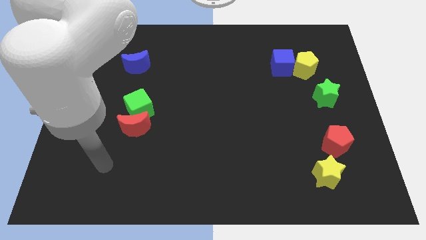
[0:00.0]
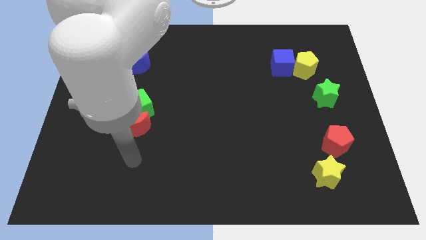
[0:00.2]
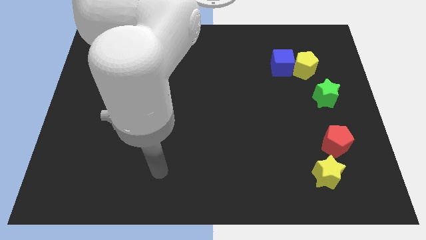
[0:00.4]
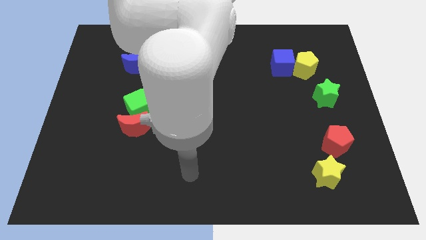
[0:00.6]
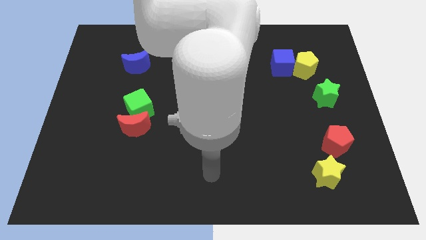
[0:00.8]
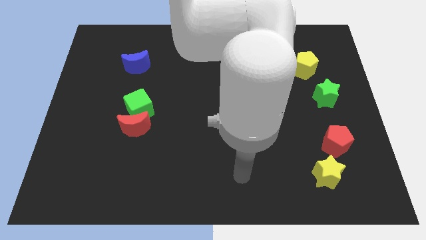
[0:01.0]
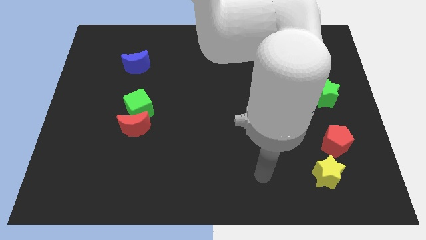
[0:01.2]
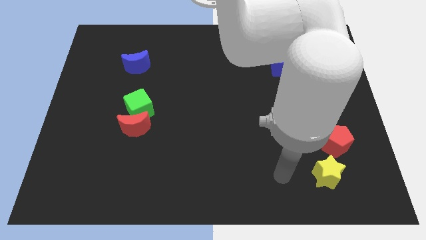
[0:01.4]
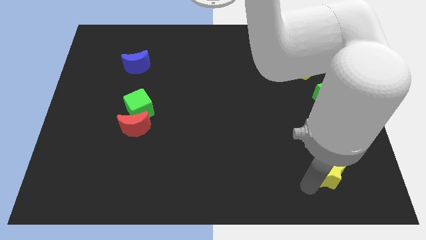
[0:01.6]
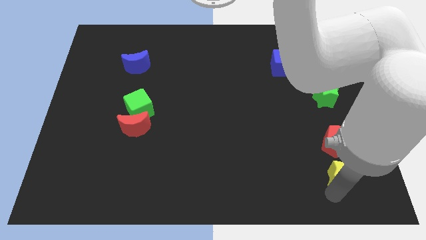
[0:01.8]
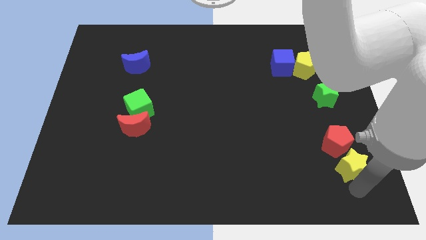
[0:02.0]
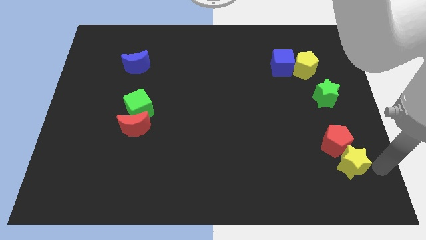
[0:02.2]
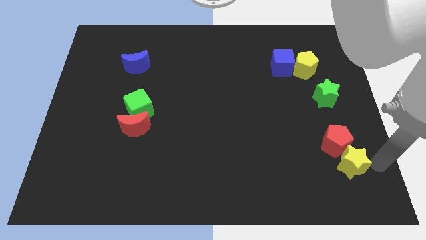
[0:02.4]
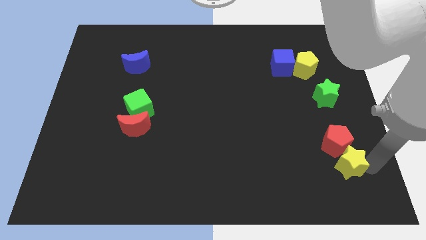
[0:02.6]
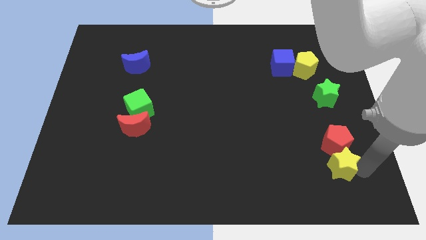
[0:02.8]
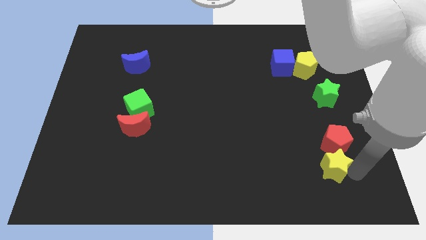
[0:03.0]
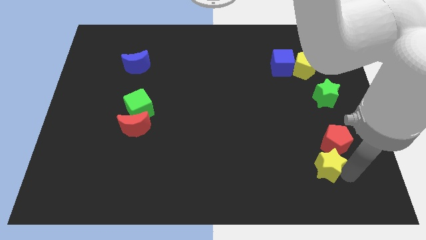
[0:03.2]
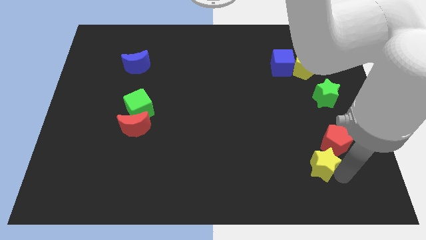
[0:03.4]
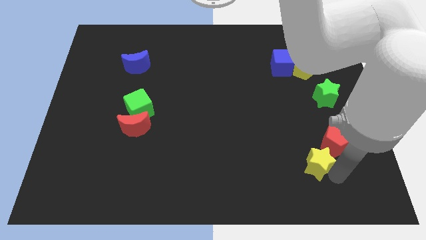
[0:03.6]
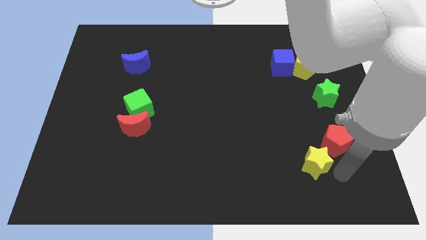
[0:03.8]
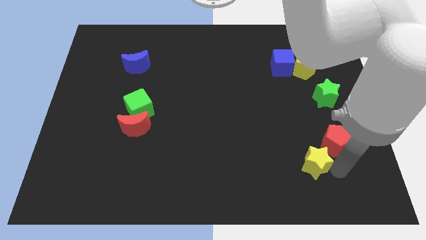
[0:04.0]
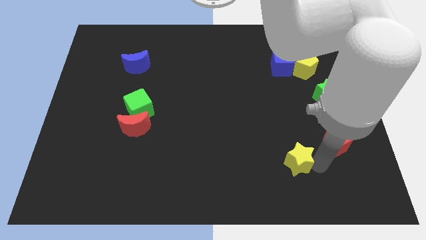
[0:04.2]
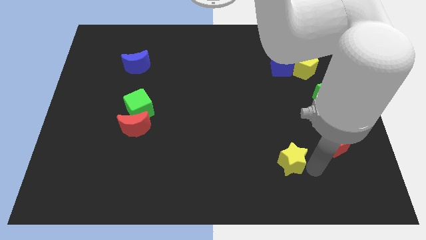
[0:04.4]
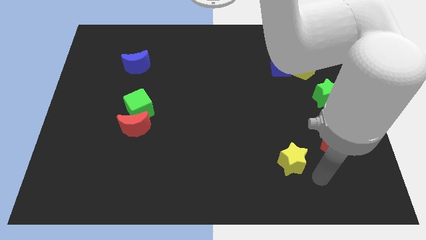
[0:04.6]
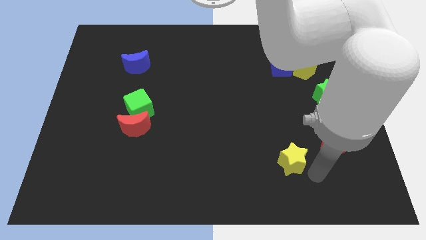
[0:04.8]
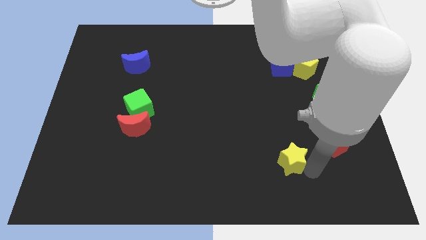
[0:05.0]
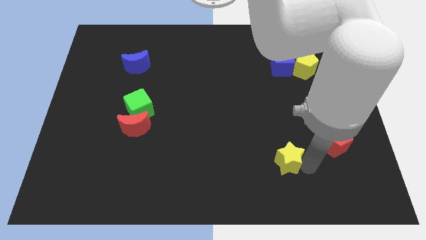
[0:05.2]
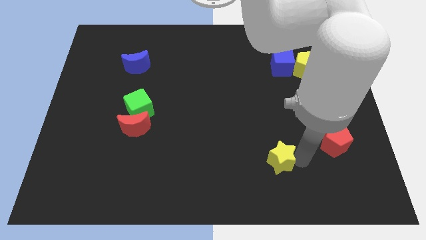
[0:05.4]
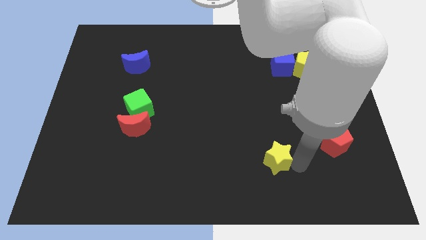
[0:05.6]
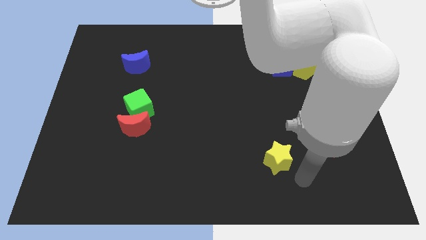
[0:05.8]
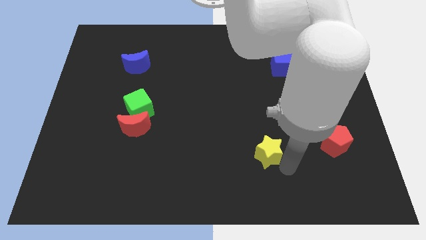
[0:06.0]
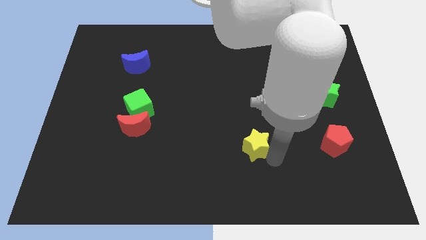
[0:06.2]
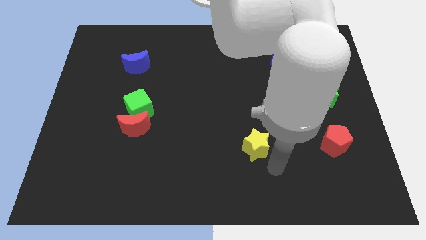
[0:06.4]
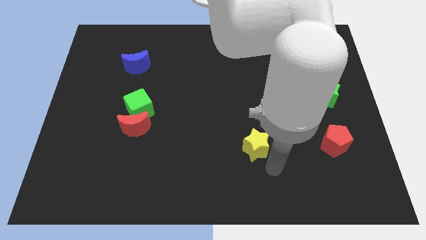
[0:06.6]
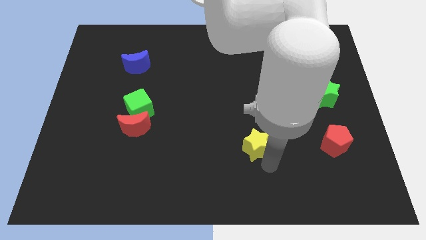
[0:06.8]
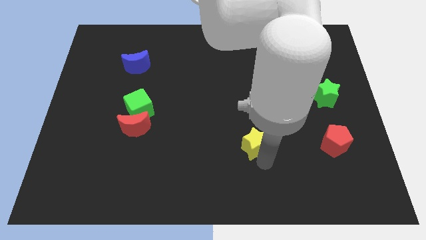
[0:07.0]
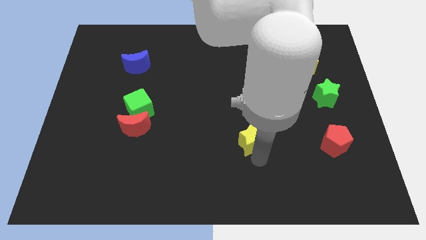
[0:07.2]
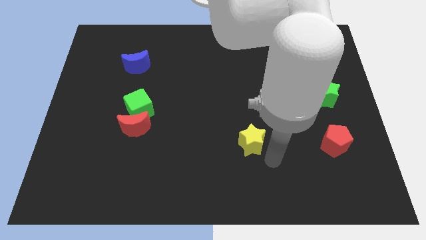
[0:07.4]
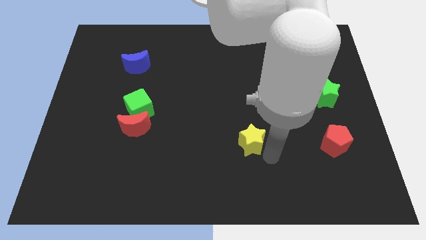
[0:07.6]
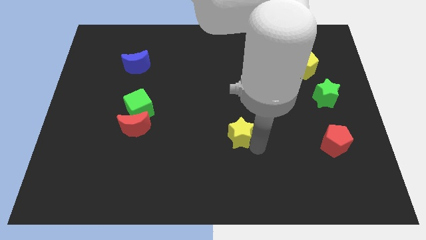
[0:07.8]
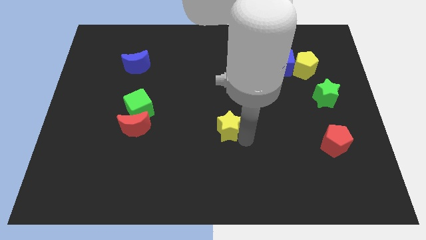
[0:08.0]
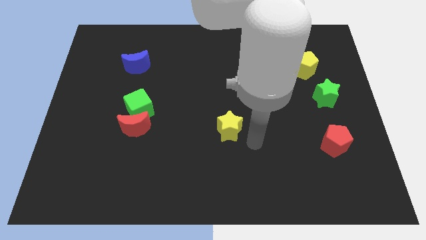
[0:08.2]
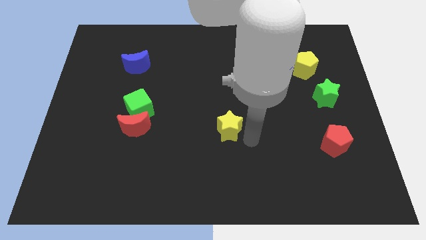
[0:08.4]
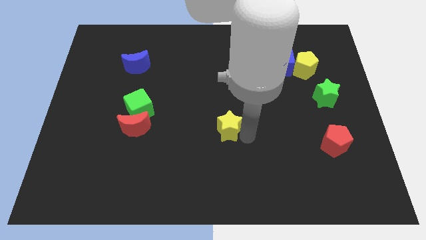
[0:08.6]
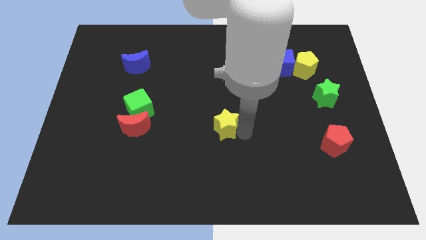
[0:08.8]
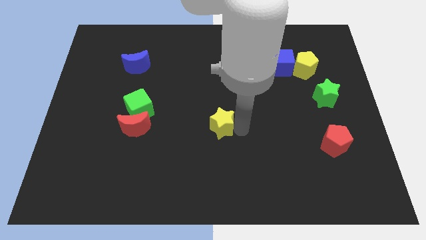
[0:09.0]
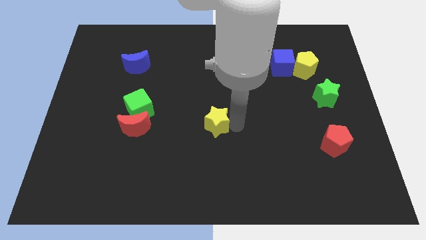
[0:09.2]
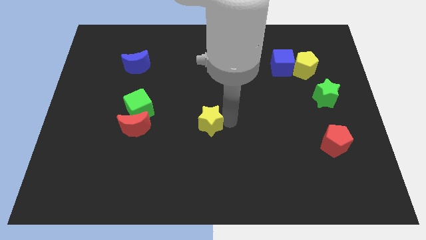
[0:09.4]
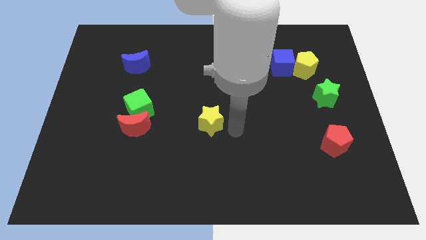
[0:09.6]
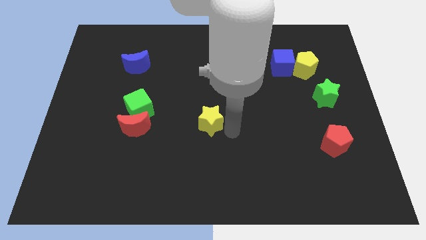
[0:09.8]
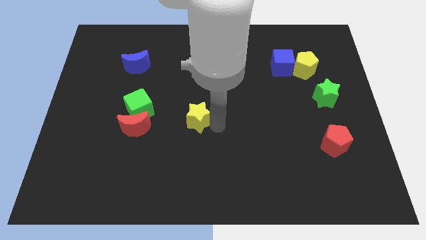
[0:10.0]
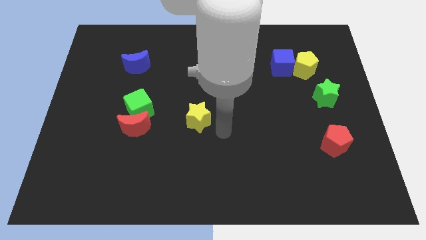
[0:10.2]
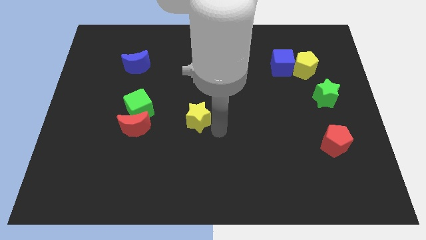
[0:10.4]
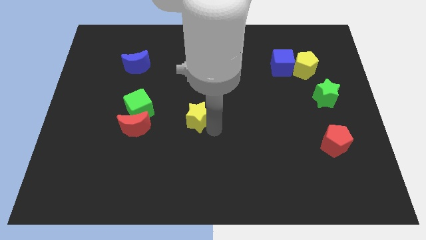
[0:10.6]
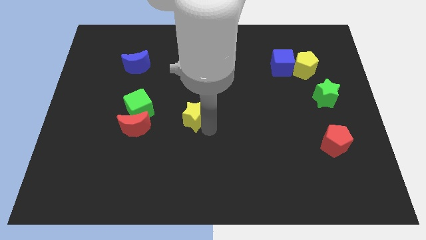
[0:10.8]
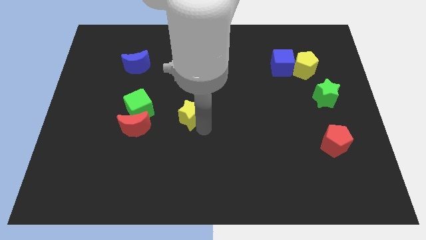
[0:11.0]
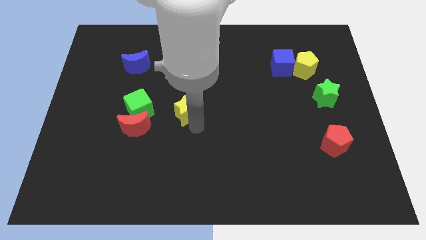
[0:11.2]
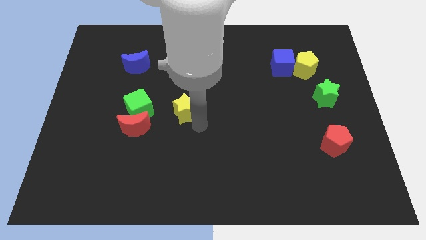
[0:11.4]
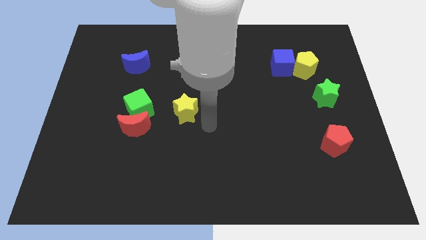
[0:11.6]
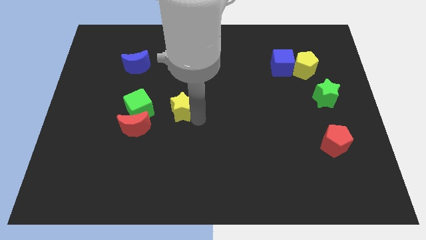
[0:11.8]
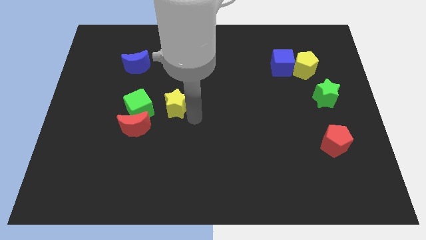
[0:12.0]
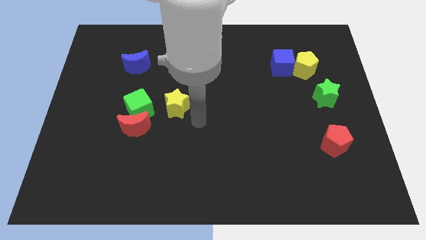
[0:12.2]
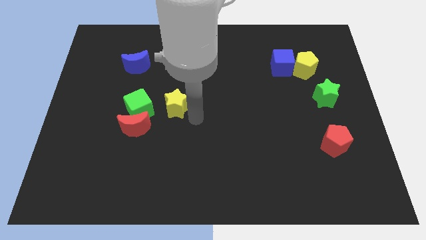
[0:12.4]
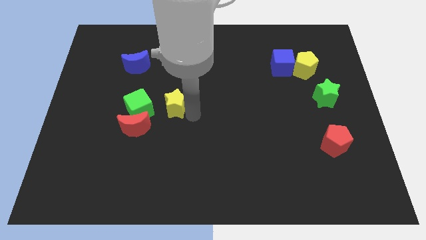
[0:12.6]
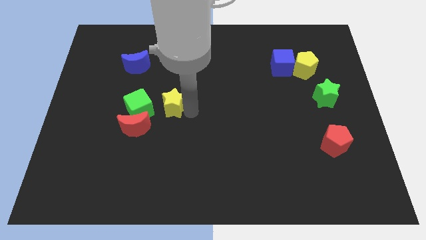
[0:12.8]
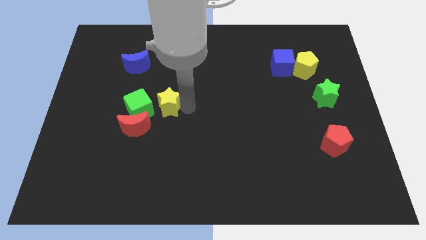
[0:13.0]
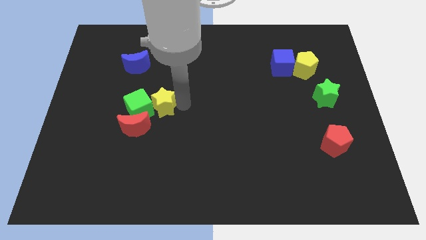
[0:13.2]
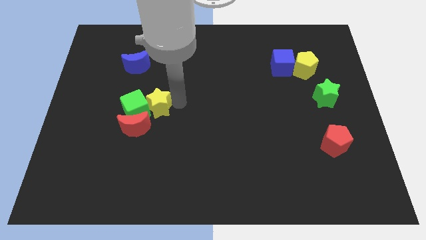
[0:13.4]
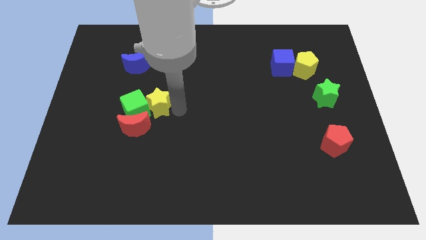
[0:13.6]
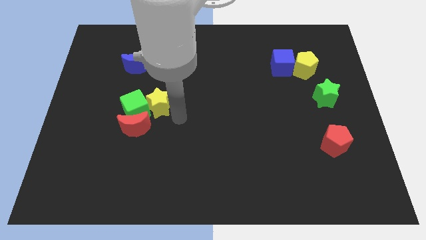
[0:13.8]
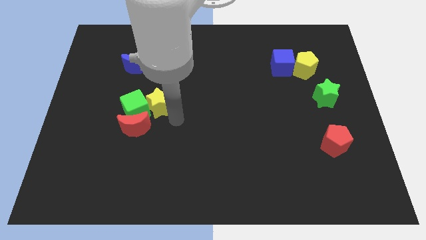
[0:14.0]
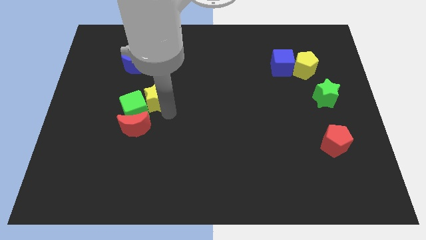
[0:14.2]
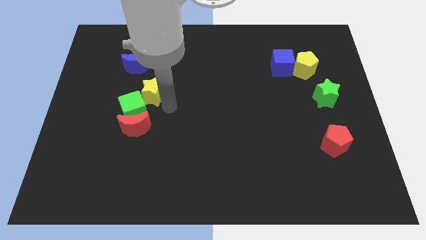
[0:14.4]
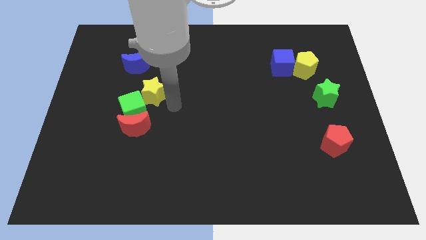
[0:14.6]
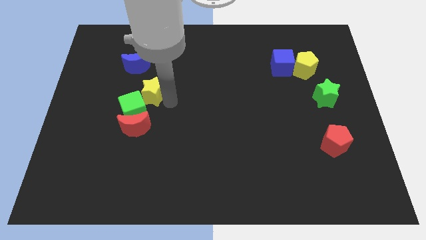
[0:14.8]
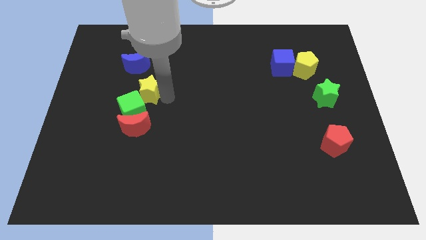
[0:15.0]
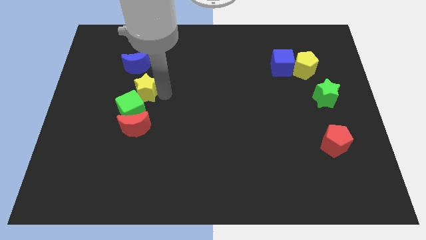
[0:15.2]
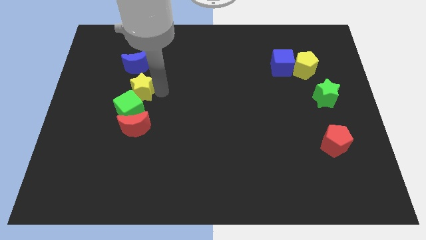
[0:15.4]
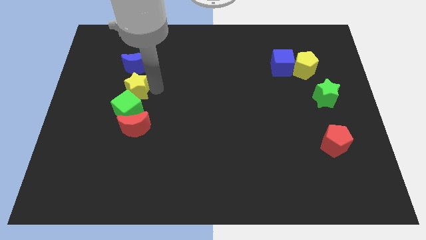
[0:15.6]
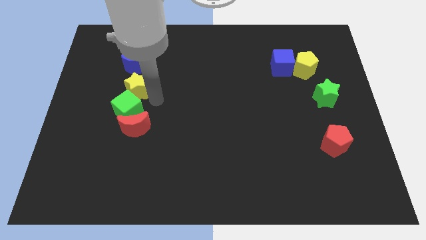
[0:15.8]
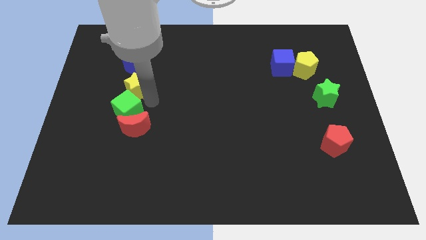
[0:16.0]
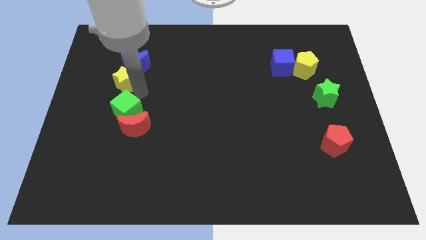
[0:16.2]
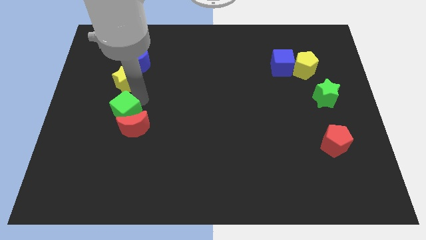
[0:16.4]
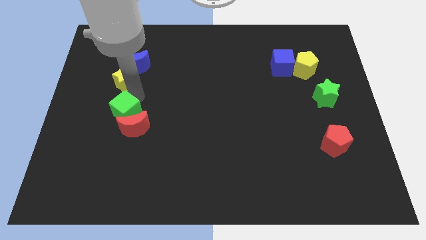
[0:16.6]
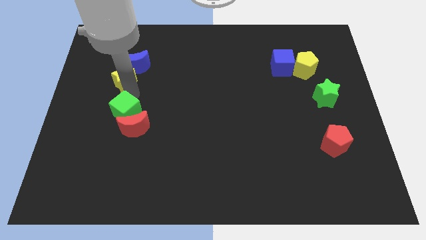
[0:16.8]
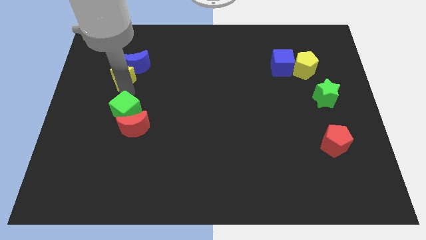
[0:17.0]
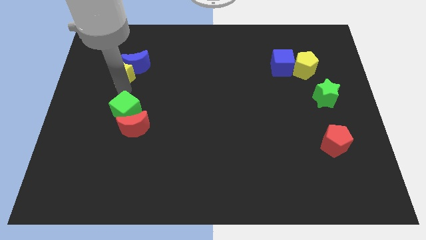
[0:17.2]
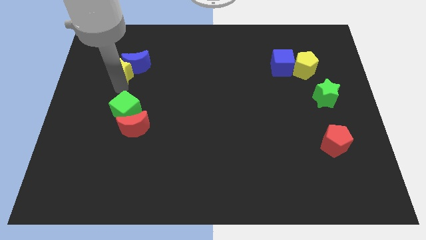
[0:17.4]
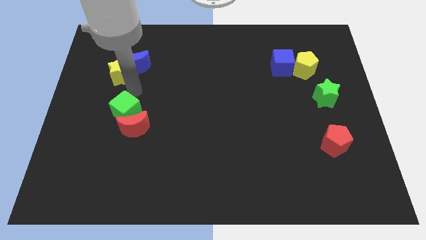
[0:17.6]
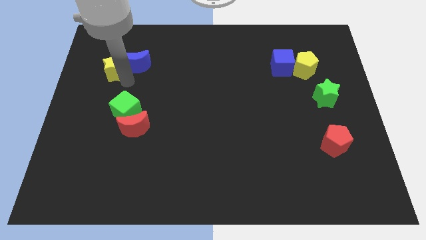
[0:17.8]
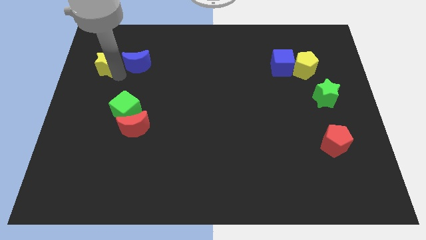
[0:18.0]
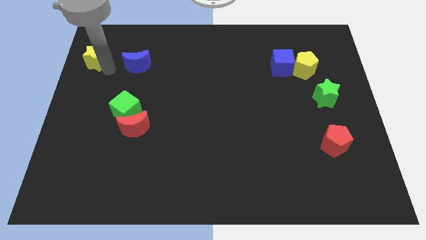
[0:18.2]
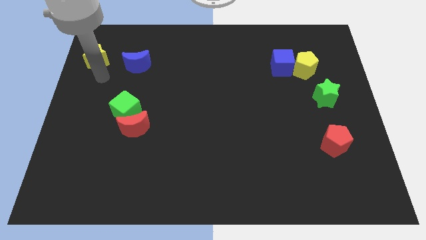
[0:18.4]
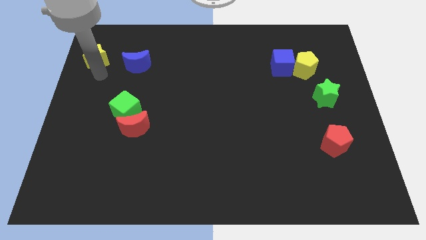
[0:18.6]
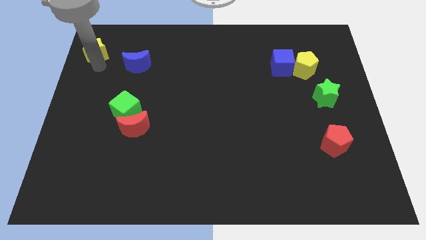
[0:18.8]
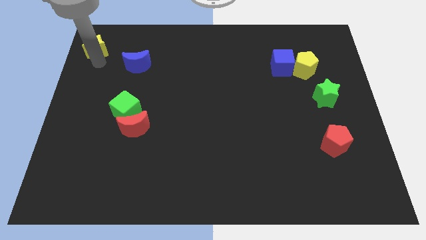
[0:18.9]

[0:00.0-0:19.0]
push the yellow star to the top left
